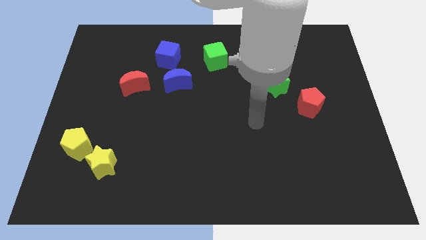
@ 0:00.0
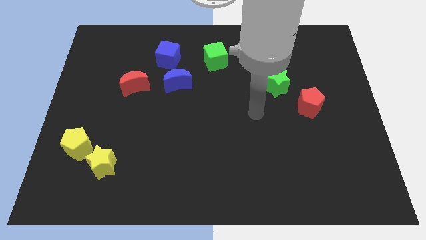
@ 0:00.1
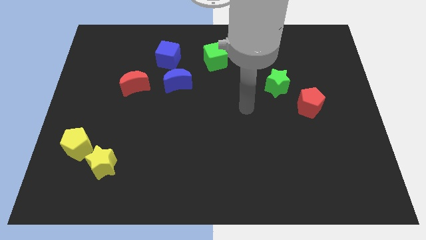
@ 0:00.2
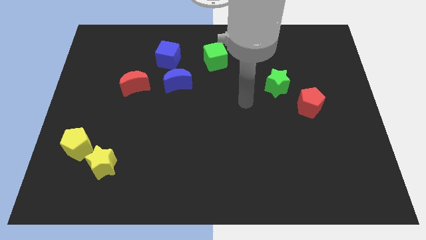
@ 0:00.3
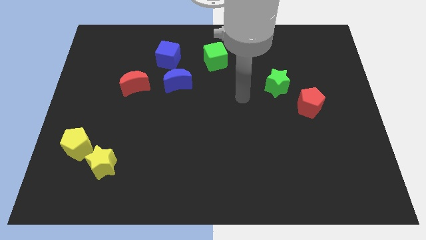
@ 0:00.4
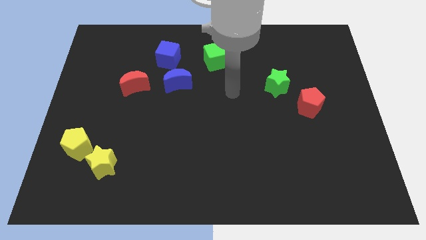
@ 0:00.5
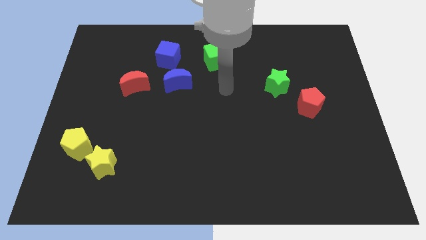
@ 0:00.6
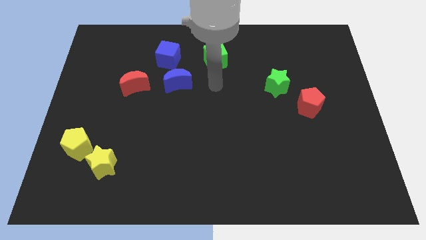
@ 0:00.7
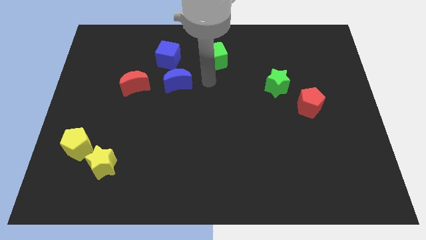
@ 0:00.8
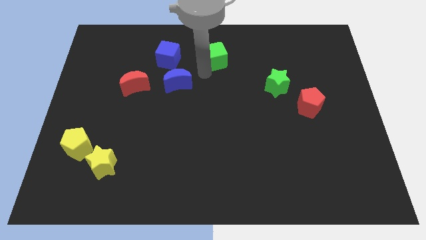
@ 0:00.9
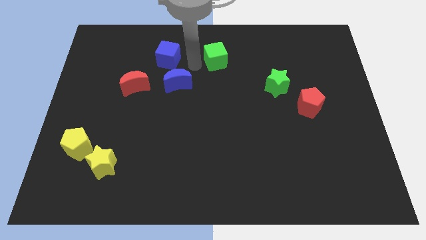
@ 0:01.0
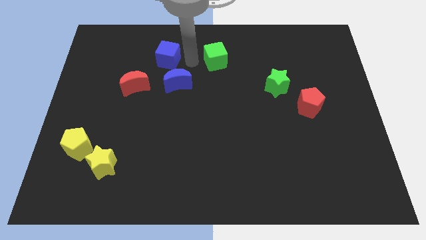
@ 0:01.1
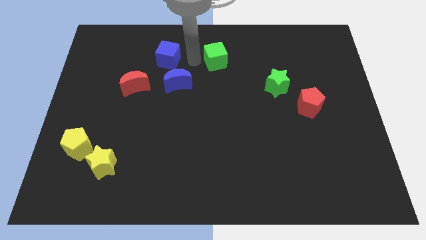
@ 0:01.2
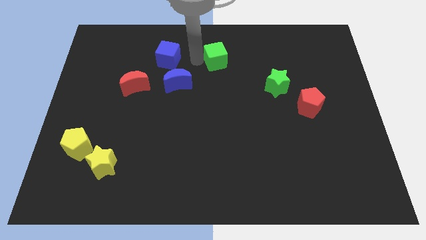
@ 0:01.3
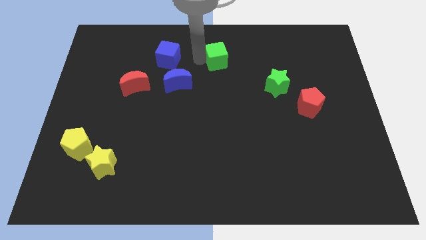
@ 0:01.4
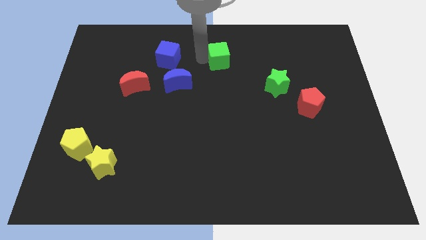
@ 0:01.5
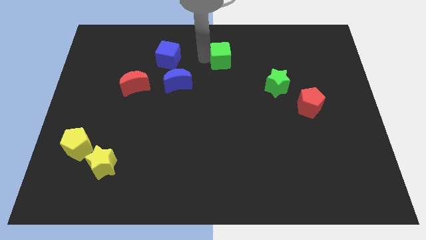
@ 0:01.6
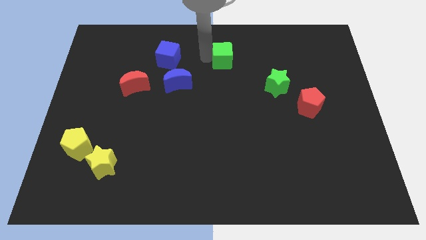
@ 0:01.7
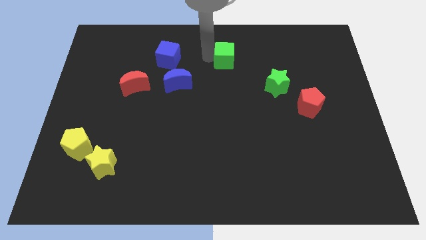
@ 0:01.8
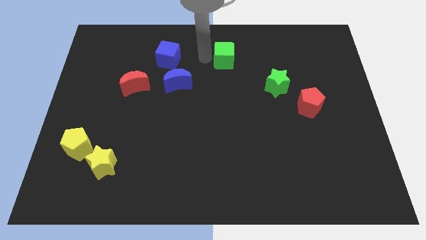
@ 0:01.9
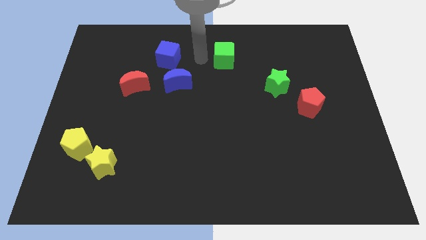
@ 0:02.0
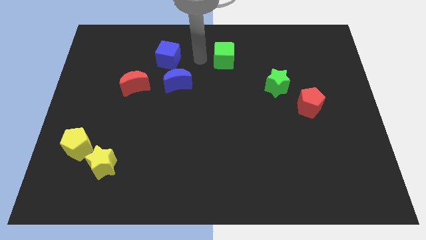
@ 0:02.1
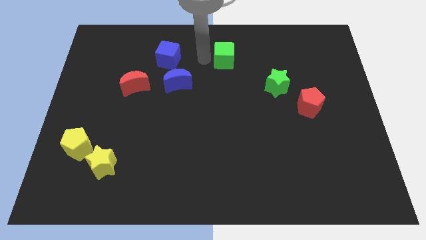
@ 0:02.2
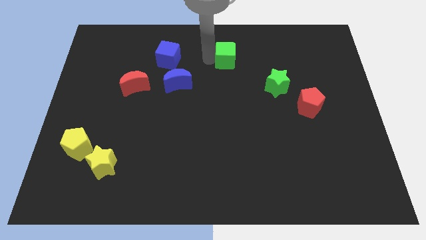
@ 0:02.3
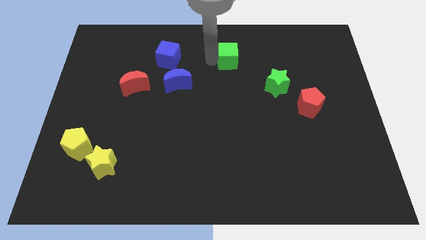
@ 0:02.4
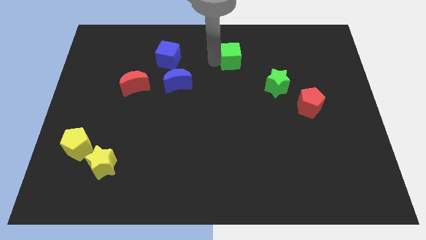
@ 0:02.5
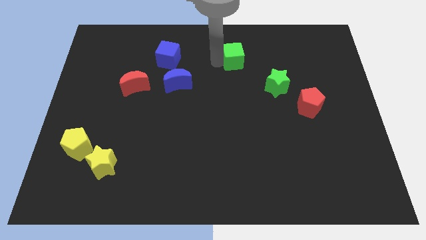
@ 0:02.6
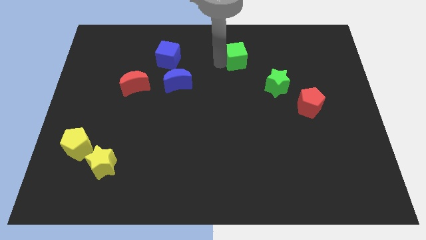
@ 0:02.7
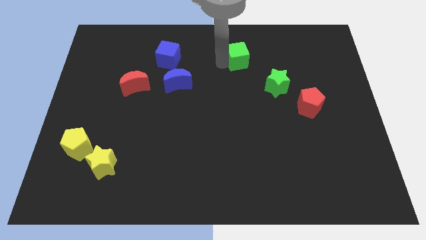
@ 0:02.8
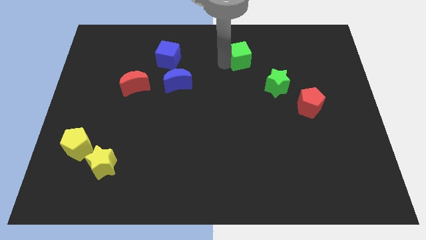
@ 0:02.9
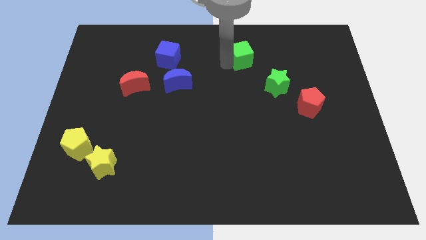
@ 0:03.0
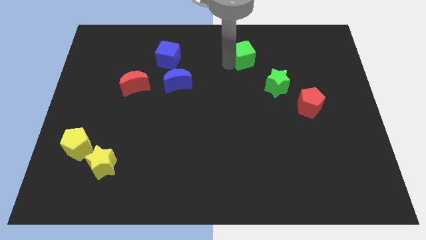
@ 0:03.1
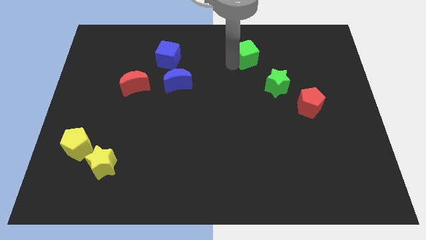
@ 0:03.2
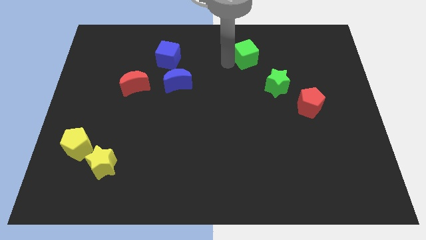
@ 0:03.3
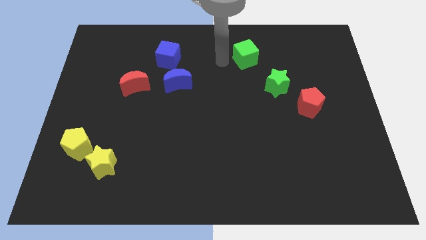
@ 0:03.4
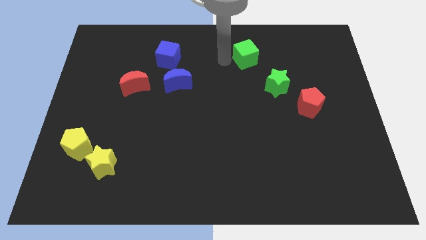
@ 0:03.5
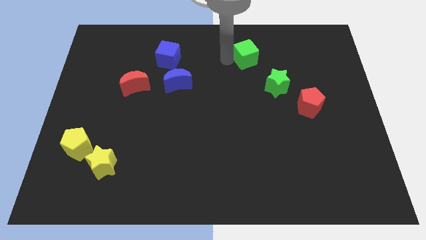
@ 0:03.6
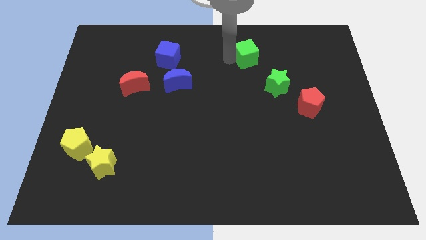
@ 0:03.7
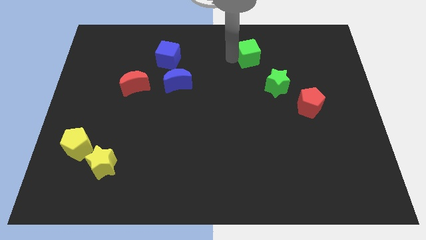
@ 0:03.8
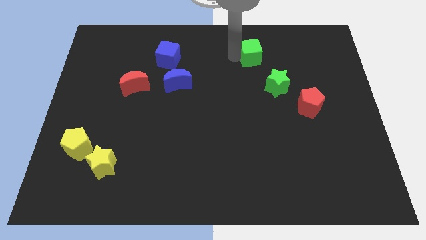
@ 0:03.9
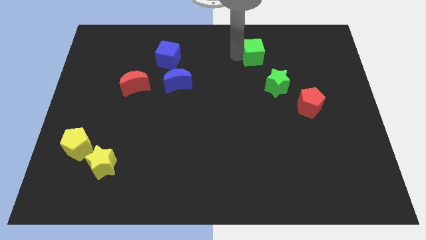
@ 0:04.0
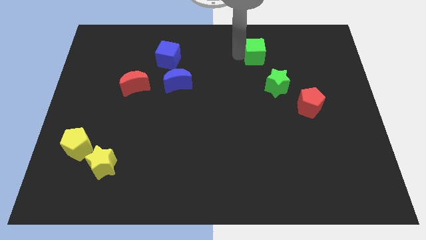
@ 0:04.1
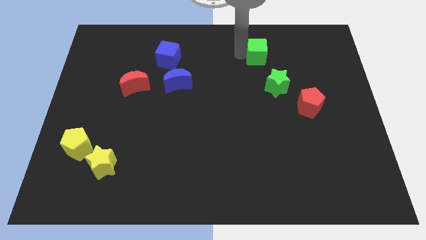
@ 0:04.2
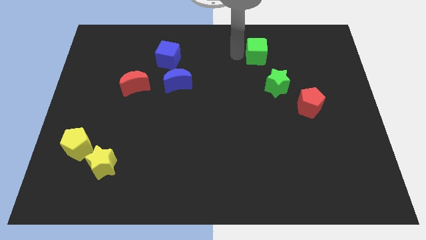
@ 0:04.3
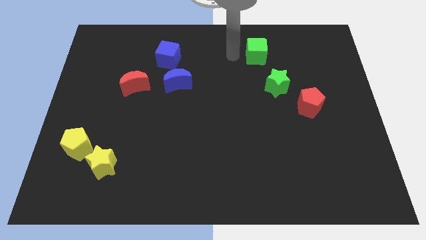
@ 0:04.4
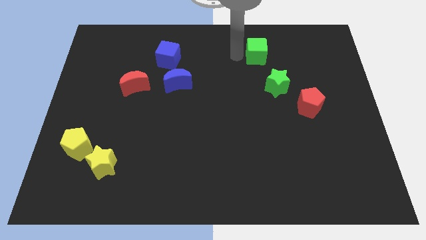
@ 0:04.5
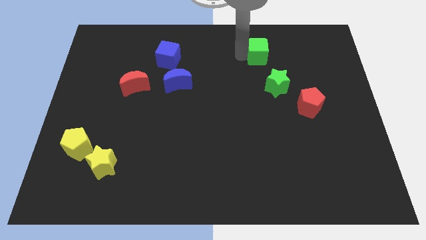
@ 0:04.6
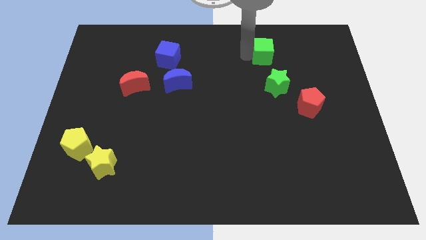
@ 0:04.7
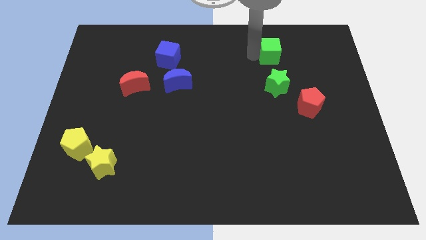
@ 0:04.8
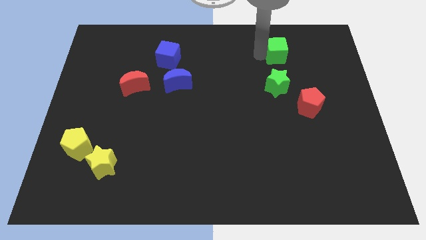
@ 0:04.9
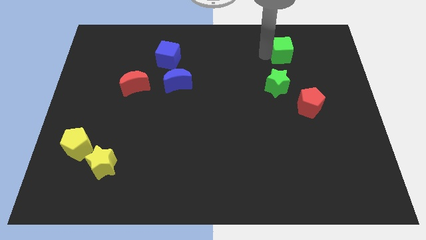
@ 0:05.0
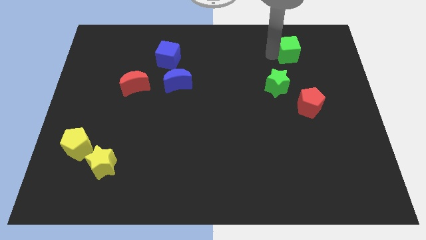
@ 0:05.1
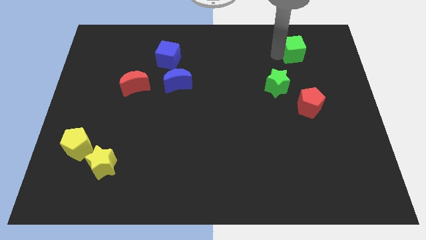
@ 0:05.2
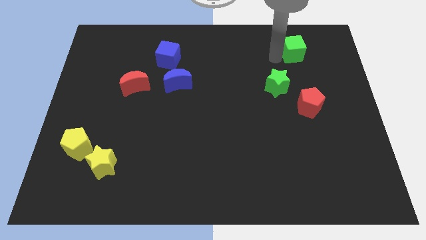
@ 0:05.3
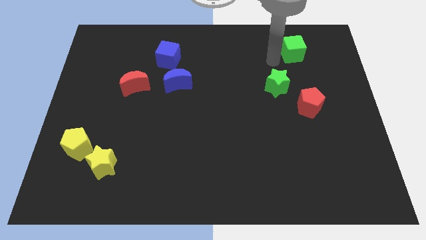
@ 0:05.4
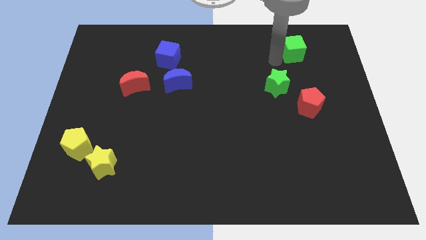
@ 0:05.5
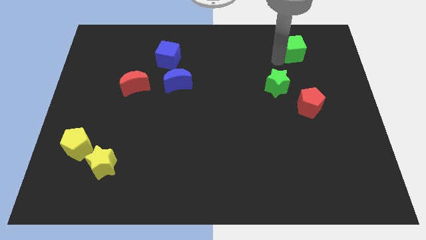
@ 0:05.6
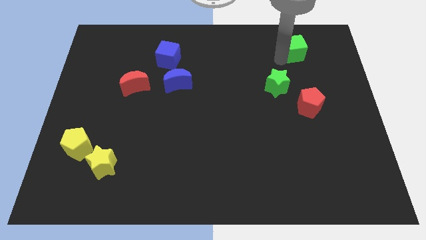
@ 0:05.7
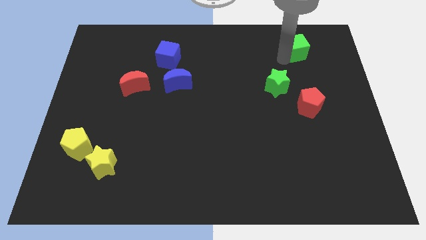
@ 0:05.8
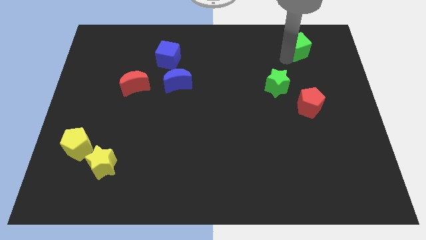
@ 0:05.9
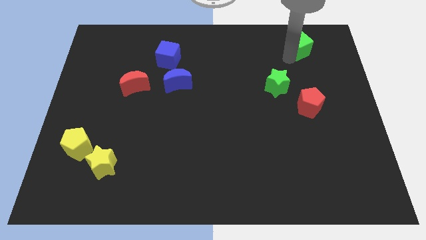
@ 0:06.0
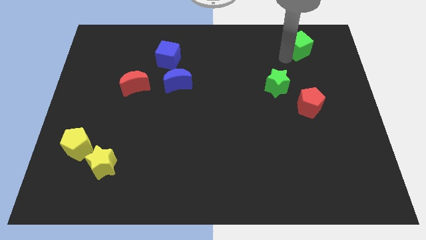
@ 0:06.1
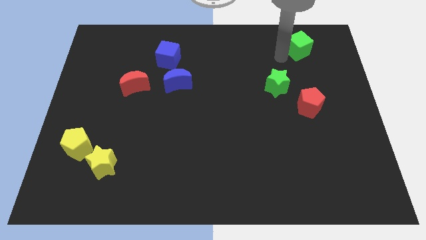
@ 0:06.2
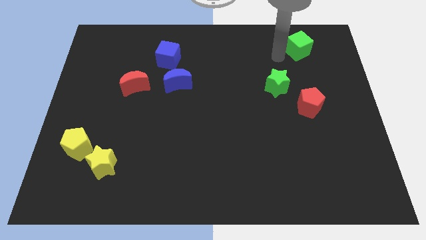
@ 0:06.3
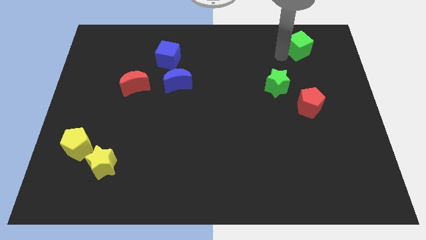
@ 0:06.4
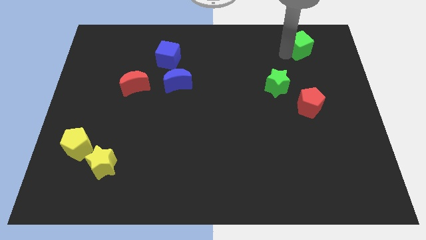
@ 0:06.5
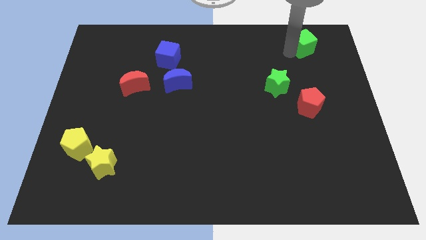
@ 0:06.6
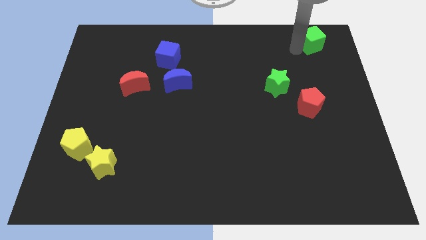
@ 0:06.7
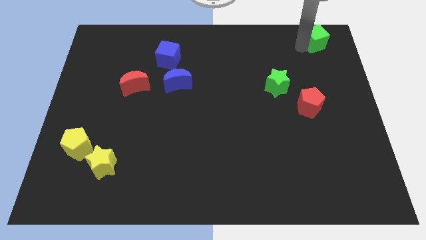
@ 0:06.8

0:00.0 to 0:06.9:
move the green cube to the top right of the board
